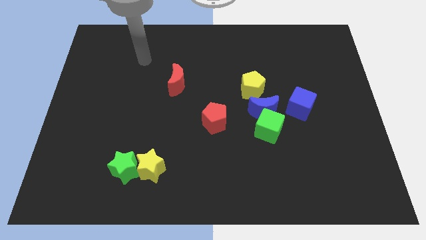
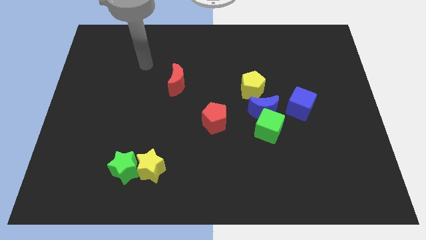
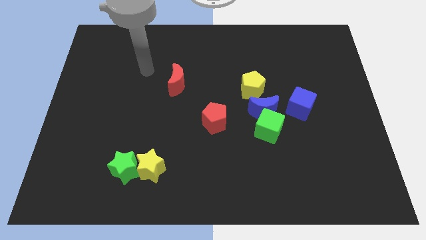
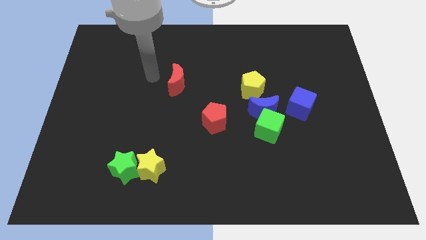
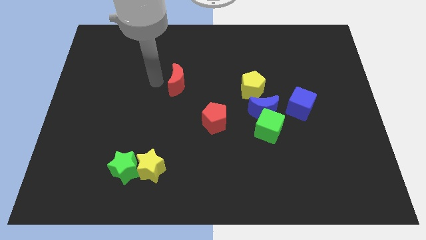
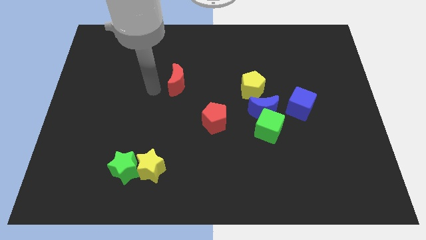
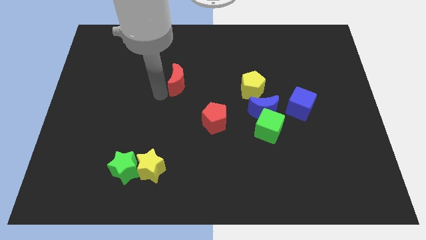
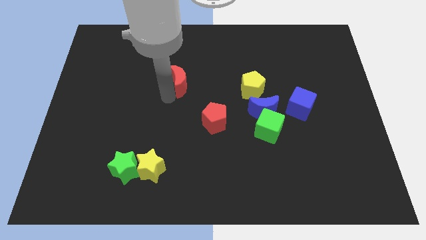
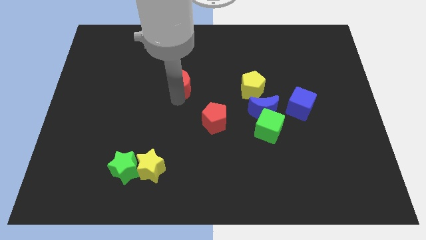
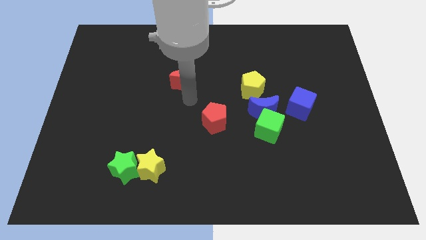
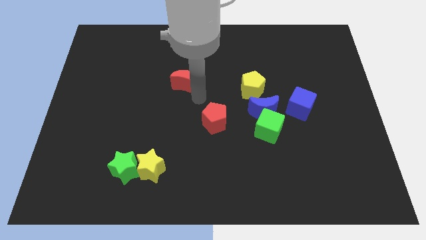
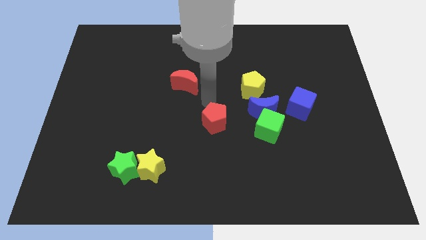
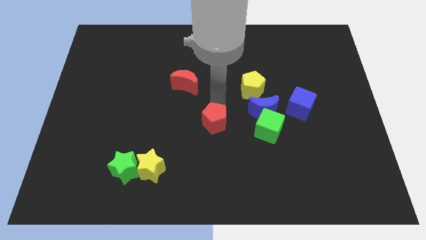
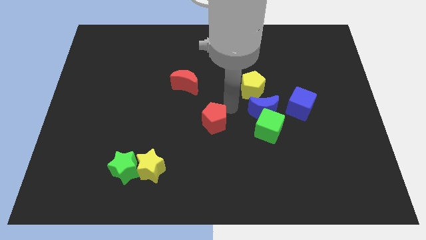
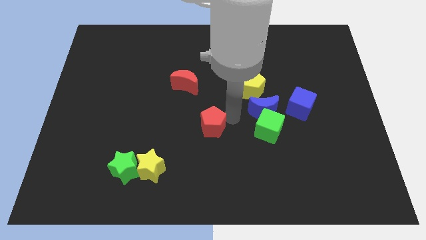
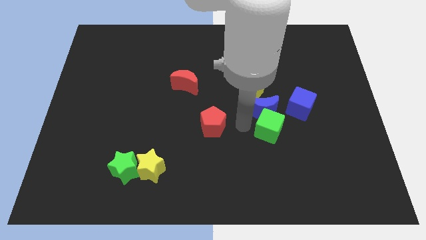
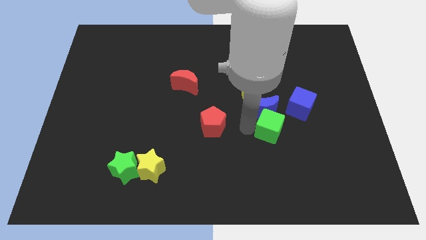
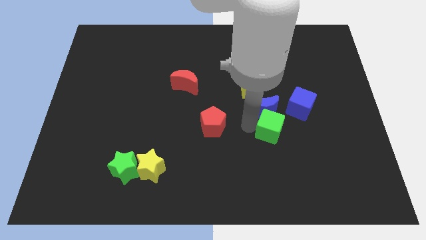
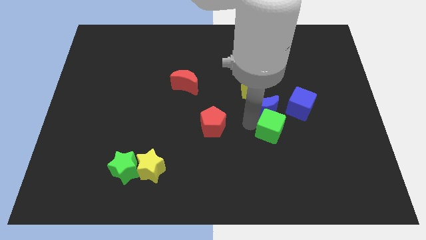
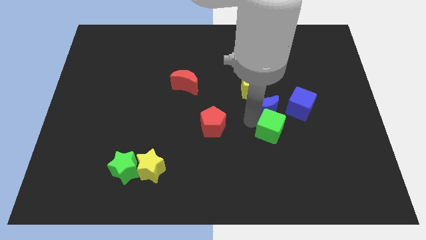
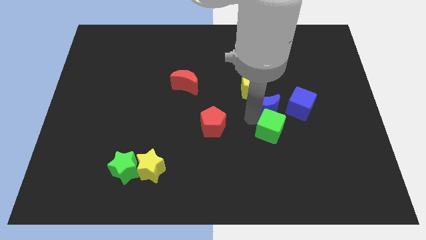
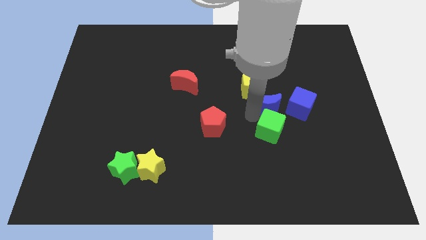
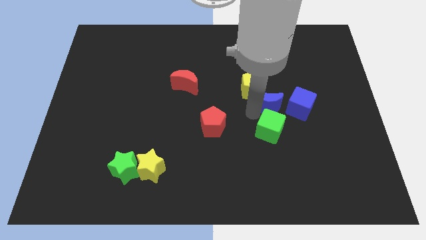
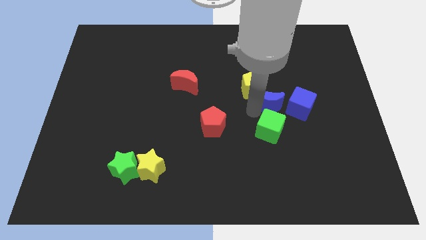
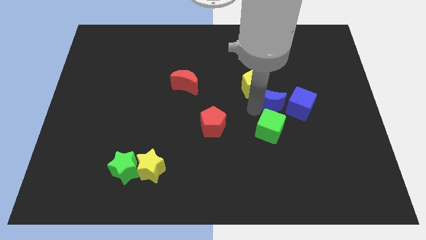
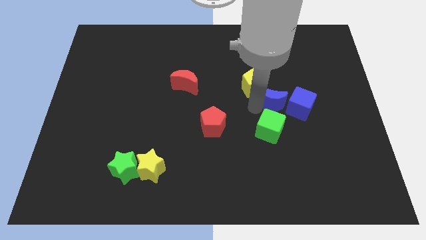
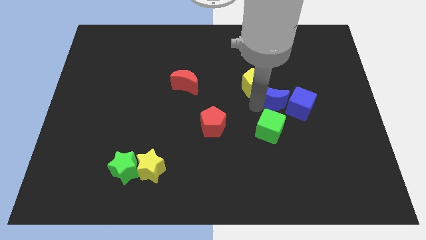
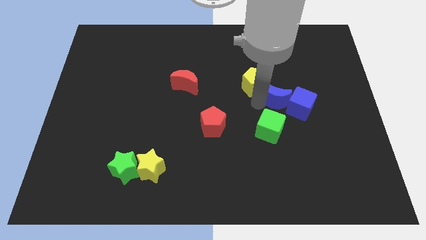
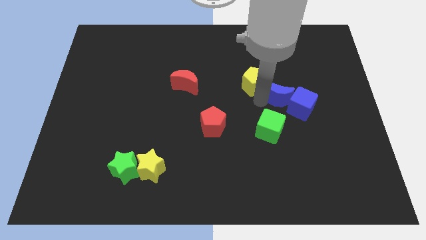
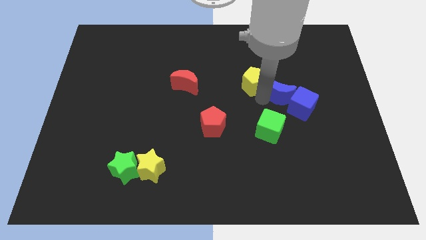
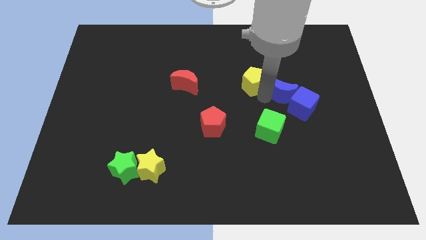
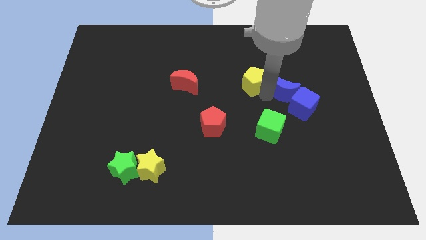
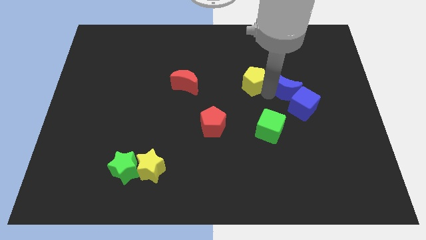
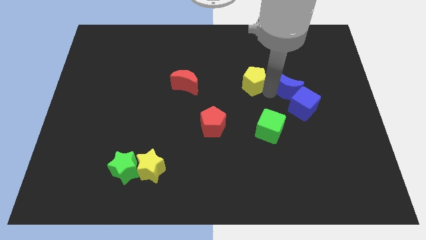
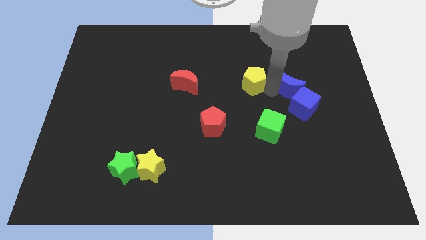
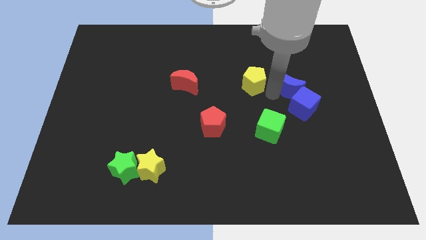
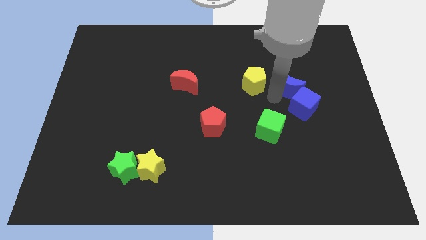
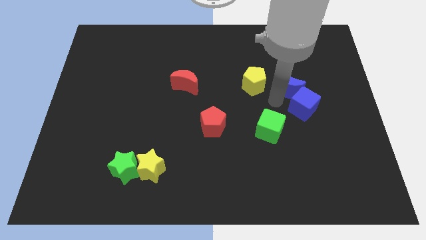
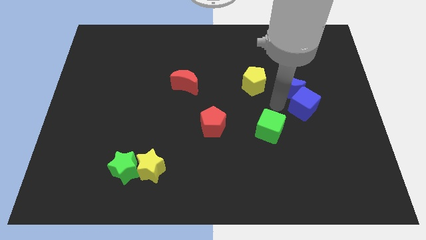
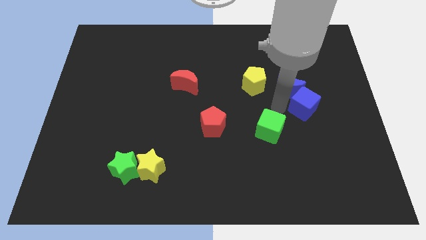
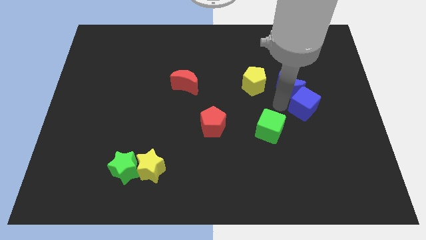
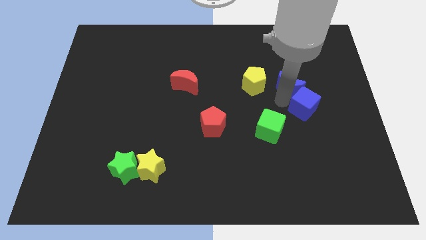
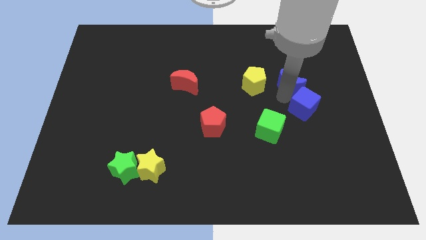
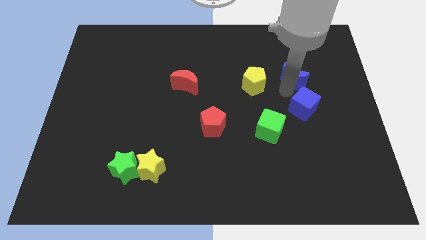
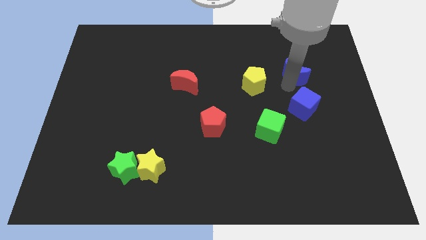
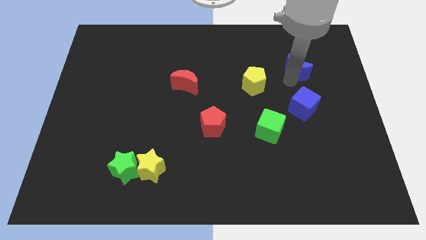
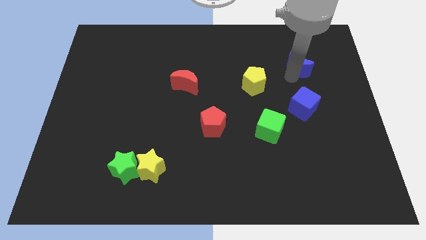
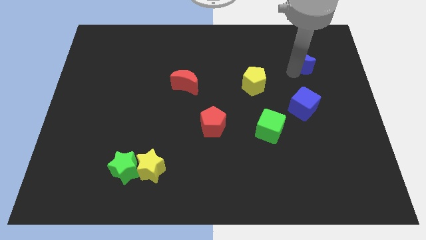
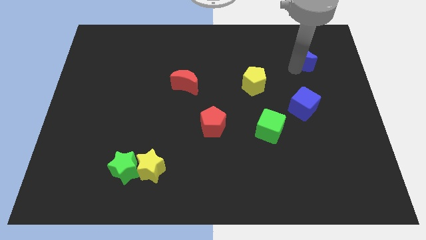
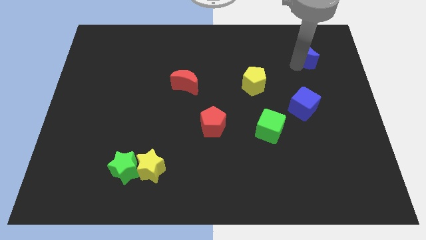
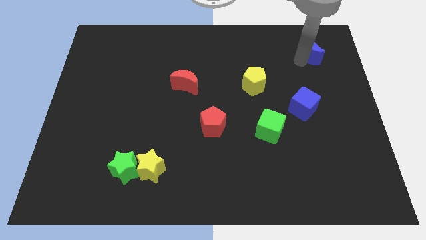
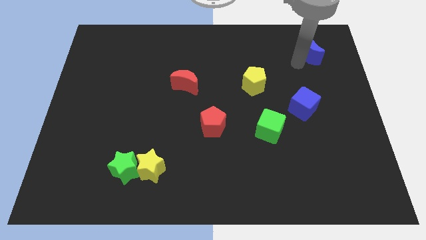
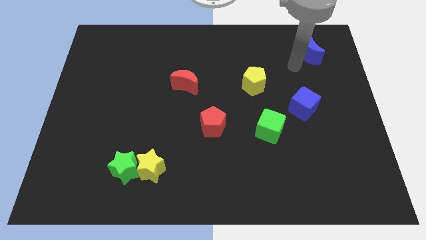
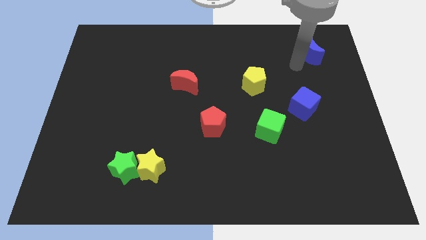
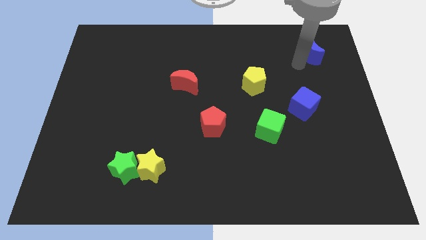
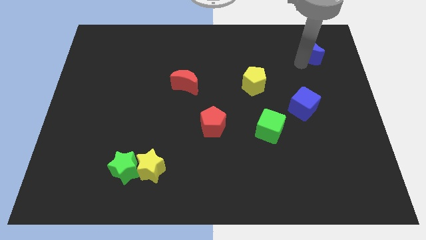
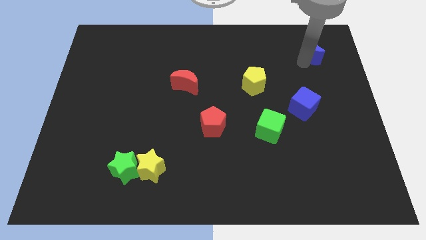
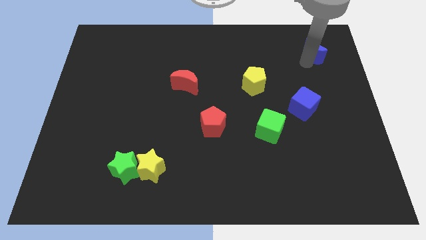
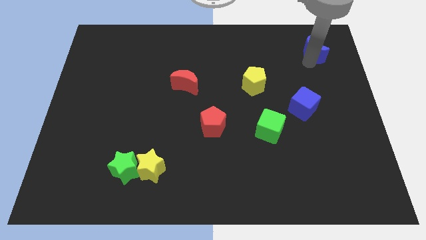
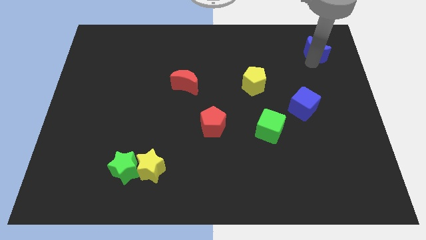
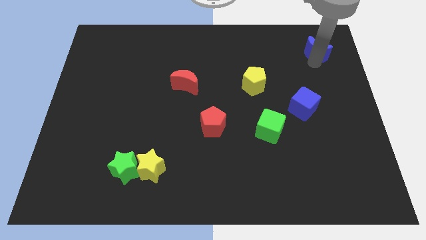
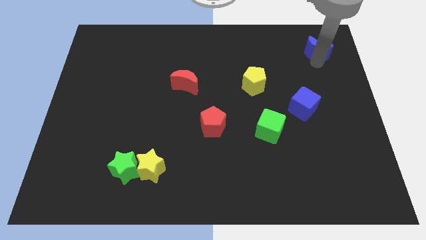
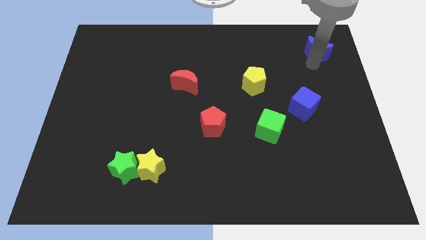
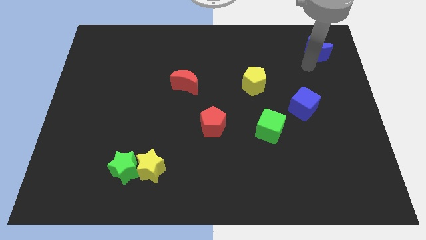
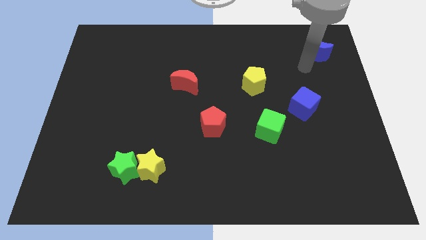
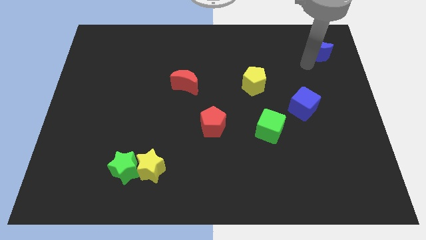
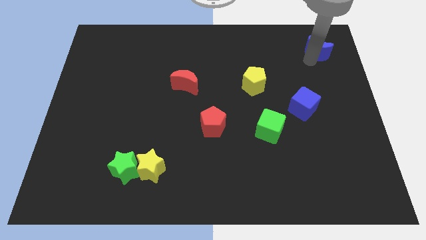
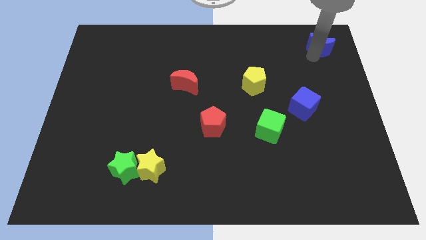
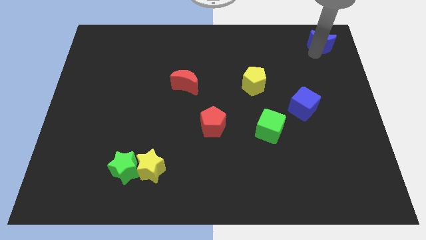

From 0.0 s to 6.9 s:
push the blue moon to the top right of the board
